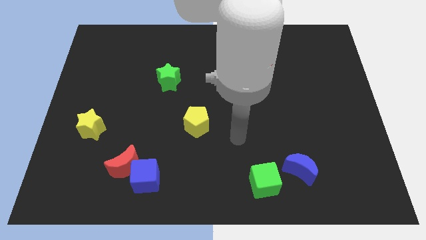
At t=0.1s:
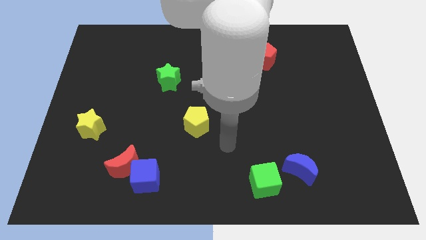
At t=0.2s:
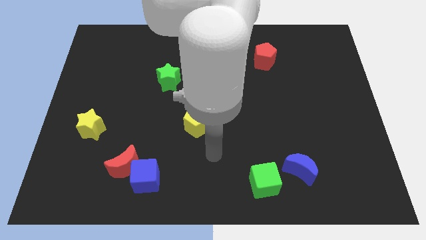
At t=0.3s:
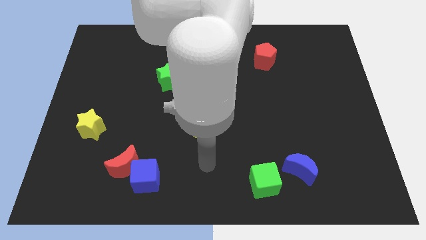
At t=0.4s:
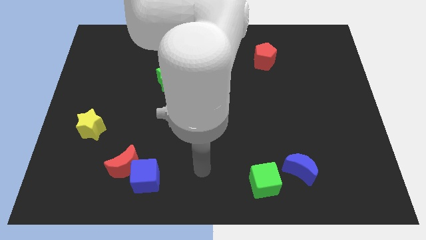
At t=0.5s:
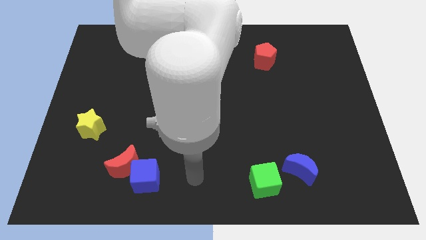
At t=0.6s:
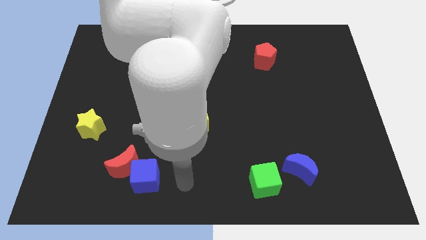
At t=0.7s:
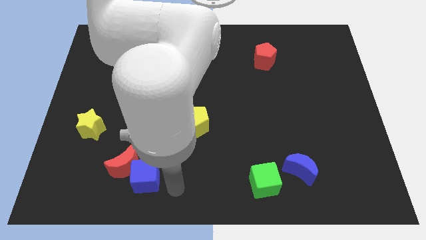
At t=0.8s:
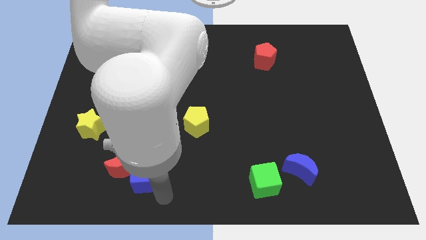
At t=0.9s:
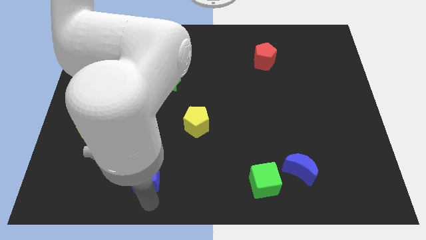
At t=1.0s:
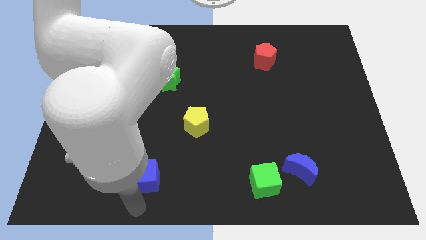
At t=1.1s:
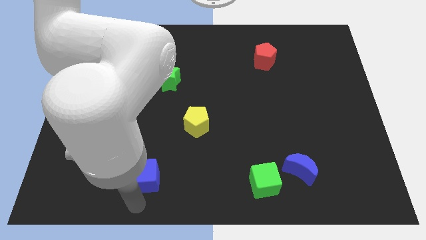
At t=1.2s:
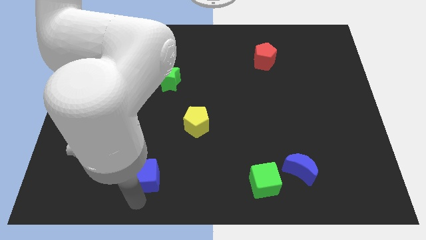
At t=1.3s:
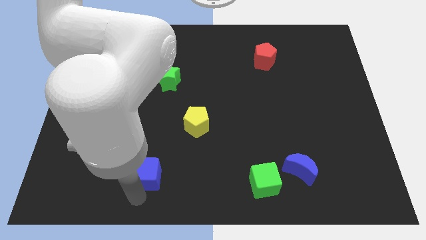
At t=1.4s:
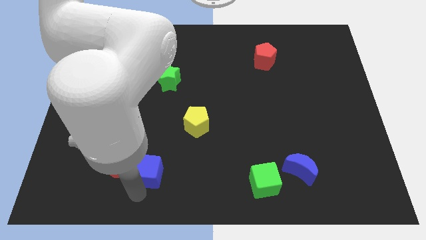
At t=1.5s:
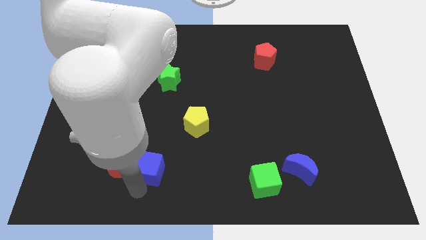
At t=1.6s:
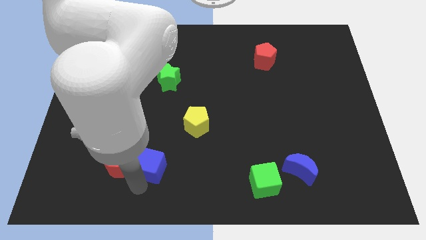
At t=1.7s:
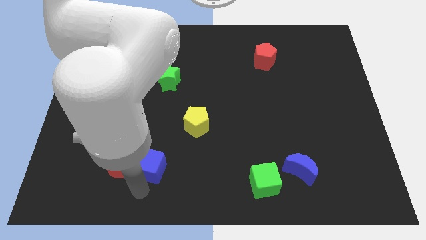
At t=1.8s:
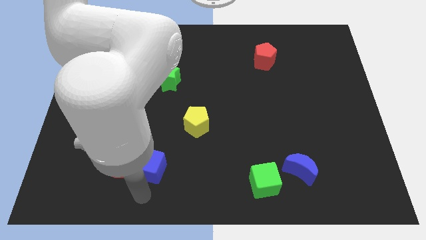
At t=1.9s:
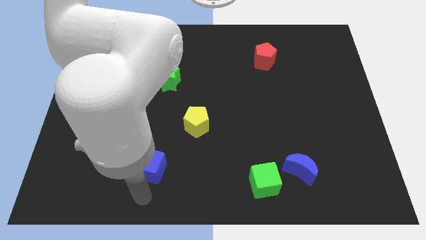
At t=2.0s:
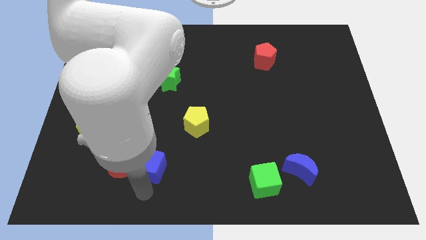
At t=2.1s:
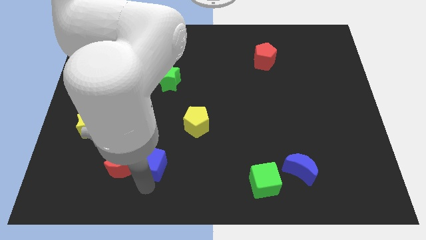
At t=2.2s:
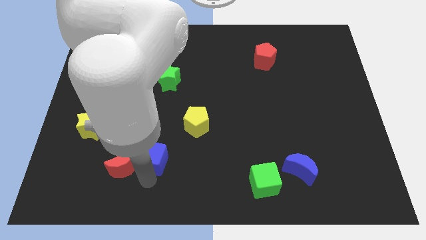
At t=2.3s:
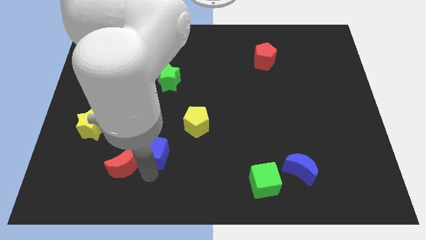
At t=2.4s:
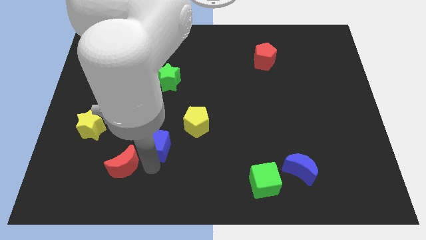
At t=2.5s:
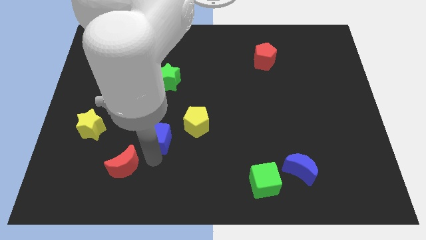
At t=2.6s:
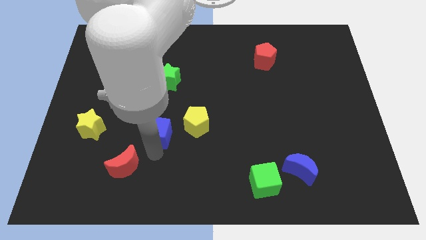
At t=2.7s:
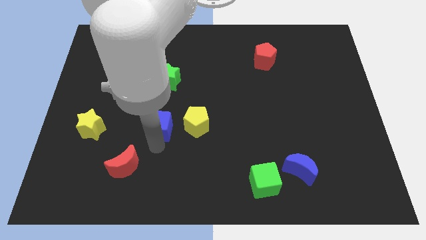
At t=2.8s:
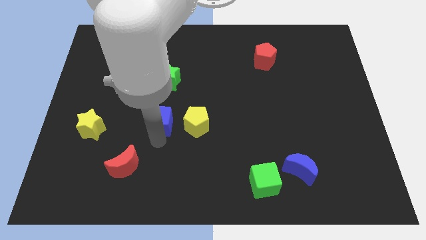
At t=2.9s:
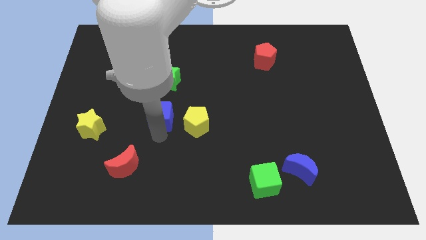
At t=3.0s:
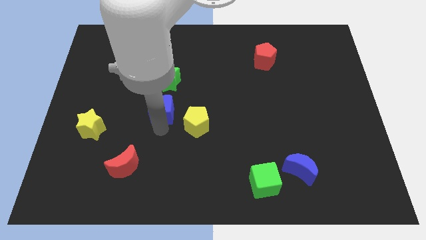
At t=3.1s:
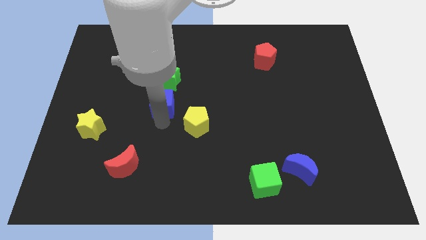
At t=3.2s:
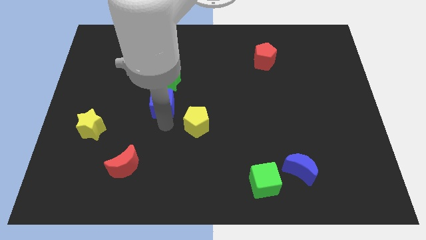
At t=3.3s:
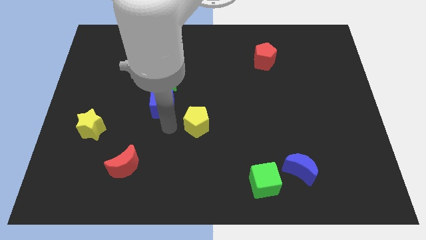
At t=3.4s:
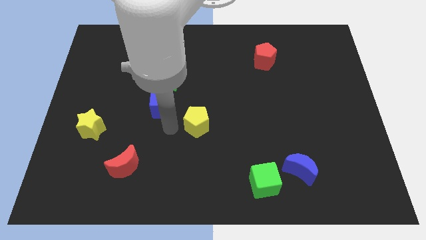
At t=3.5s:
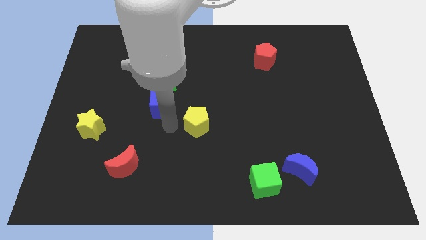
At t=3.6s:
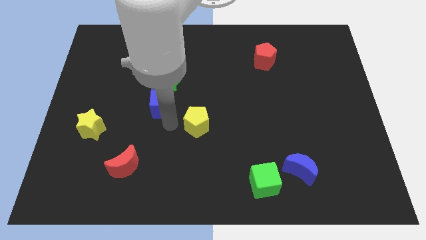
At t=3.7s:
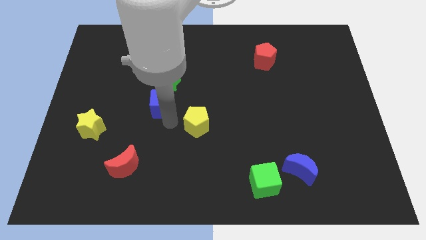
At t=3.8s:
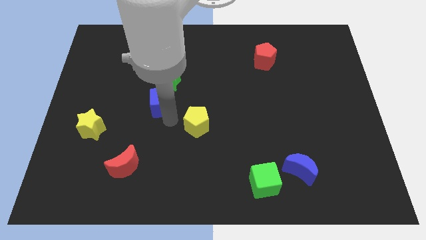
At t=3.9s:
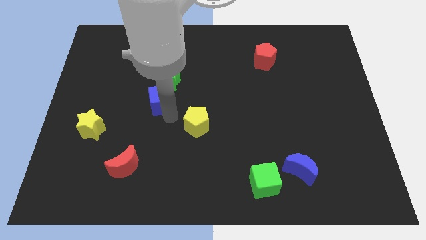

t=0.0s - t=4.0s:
slide the blue cube upwards

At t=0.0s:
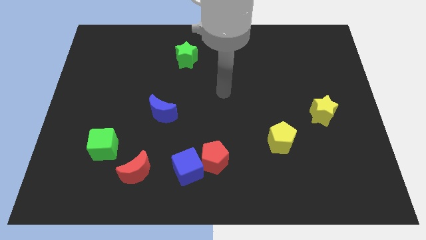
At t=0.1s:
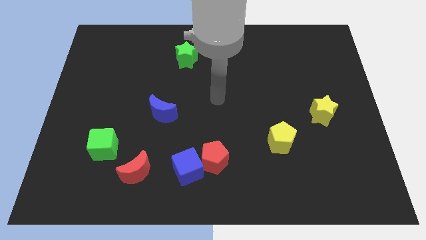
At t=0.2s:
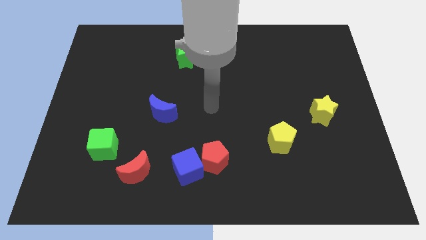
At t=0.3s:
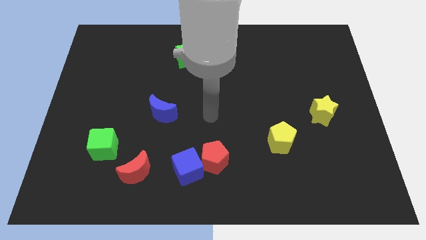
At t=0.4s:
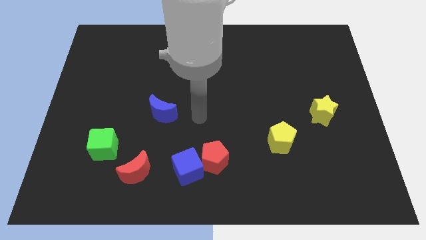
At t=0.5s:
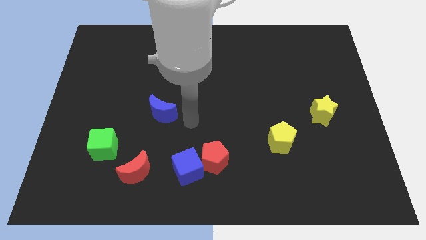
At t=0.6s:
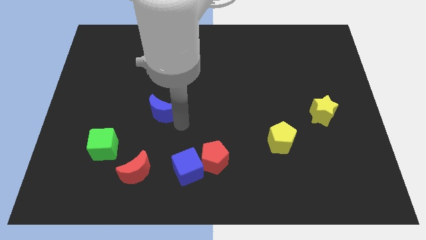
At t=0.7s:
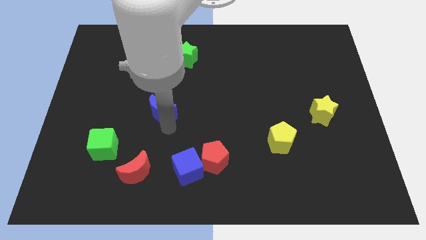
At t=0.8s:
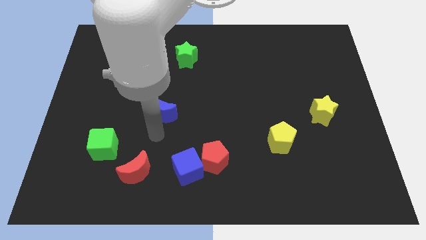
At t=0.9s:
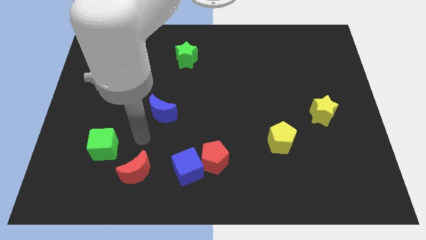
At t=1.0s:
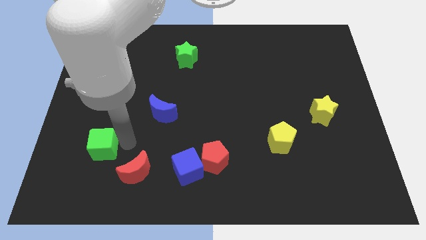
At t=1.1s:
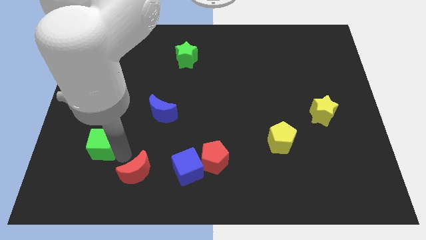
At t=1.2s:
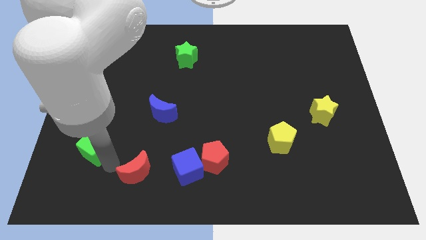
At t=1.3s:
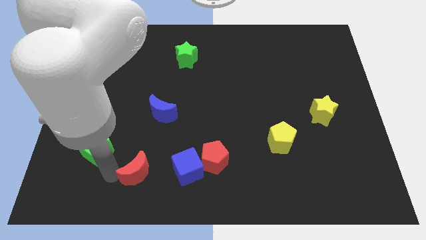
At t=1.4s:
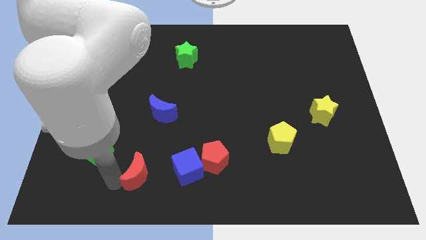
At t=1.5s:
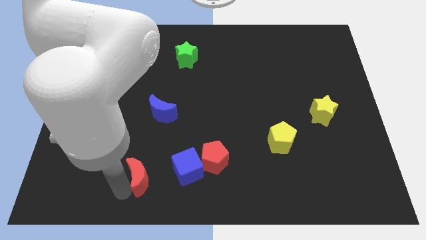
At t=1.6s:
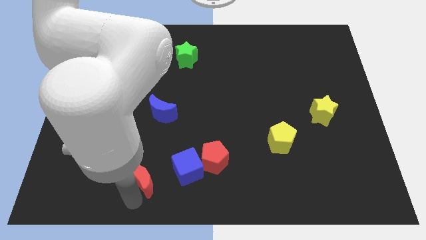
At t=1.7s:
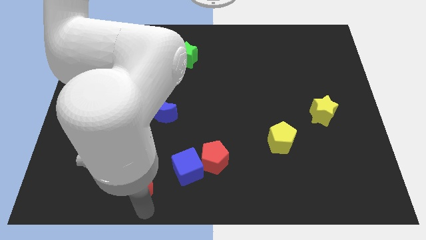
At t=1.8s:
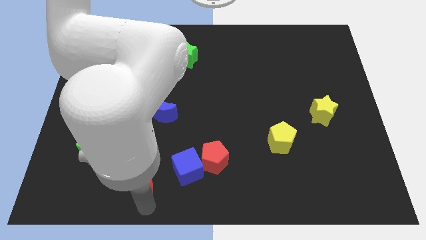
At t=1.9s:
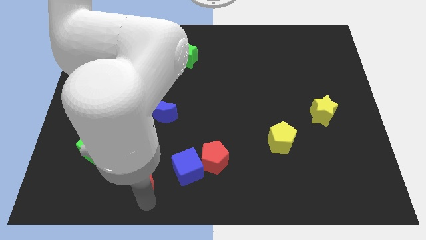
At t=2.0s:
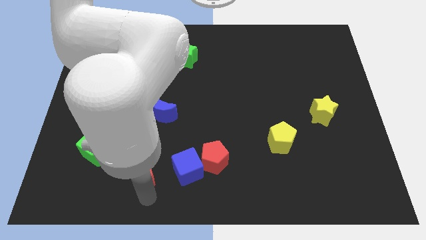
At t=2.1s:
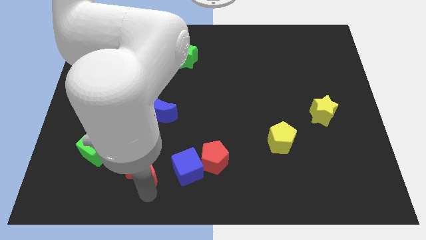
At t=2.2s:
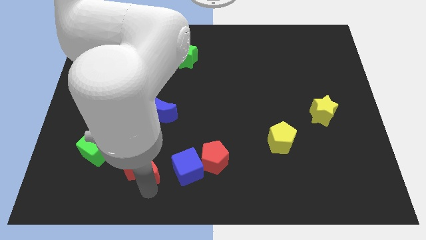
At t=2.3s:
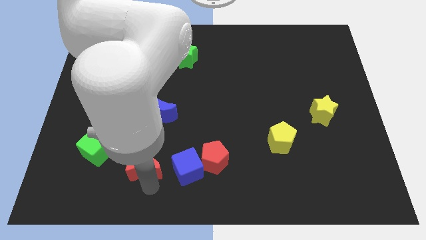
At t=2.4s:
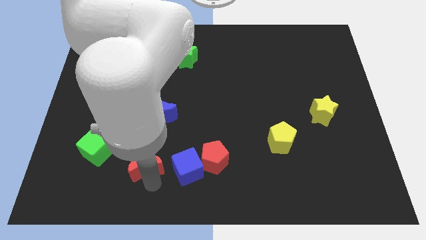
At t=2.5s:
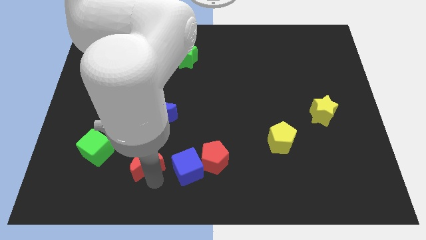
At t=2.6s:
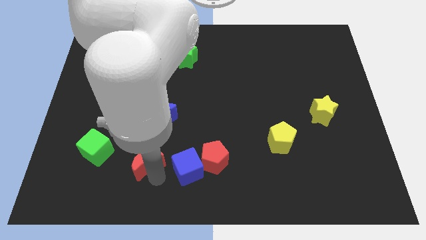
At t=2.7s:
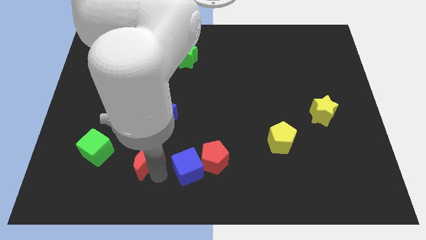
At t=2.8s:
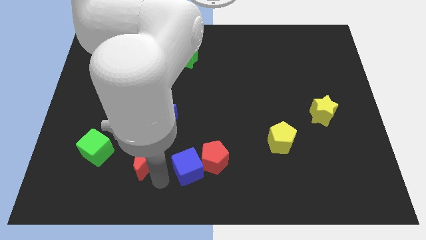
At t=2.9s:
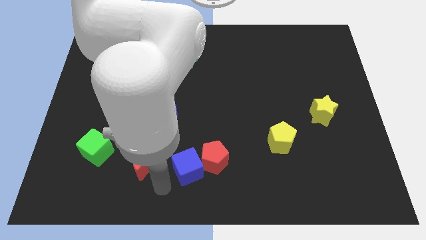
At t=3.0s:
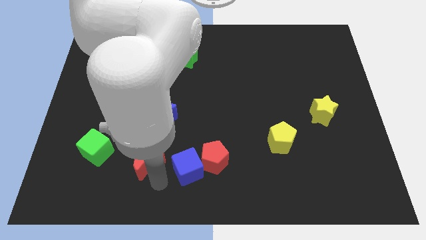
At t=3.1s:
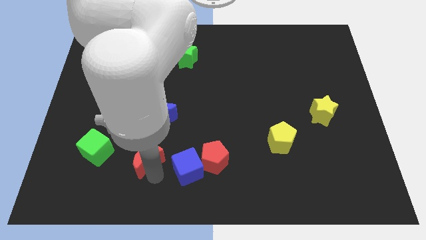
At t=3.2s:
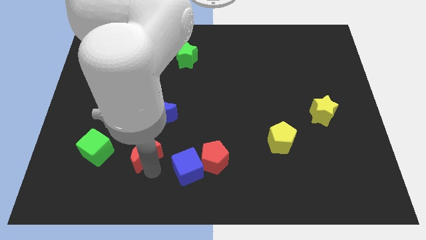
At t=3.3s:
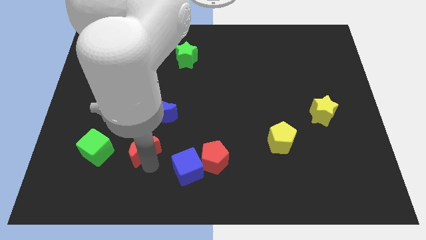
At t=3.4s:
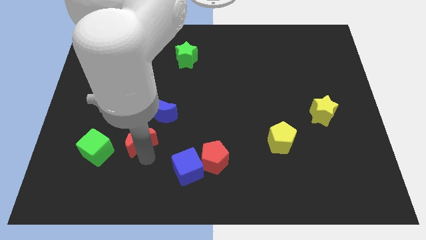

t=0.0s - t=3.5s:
slide the red moon a little bit upwards

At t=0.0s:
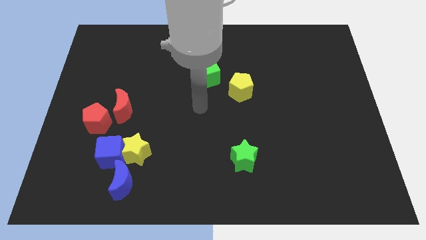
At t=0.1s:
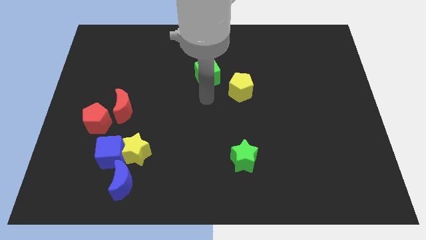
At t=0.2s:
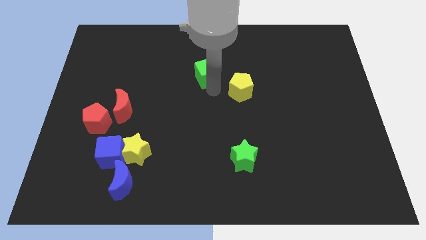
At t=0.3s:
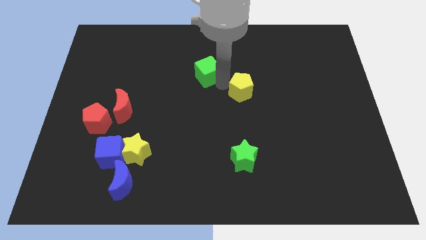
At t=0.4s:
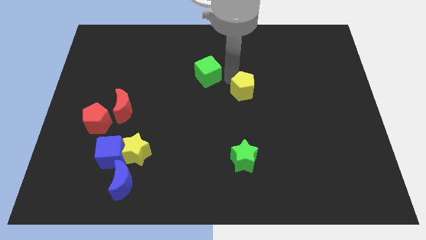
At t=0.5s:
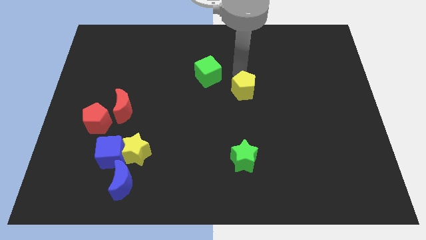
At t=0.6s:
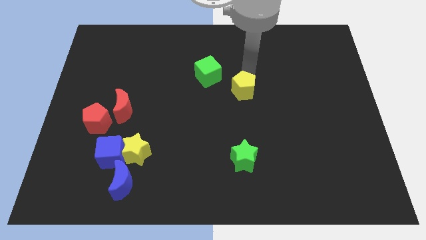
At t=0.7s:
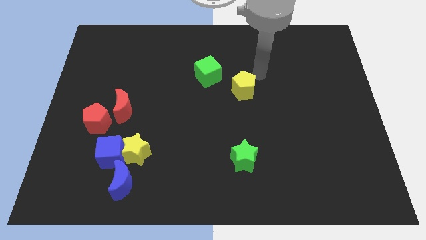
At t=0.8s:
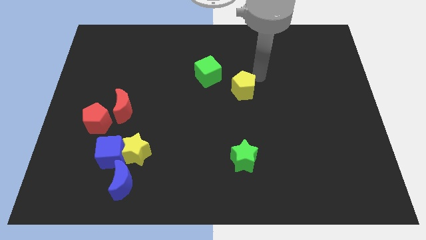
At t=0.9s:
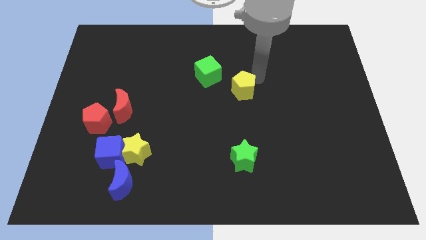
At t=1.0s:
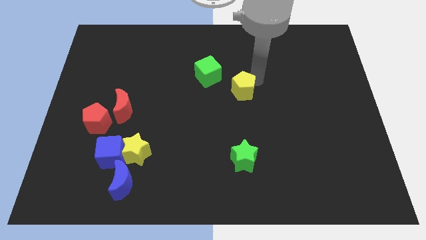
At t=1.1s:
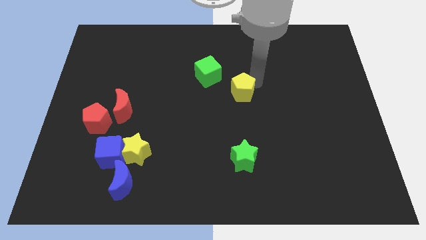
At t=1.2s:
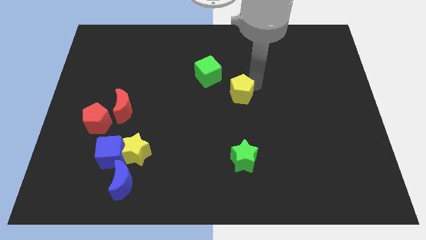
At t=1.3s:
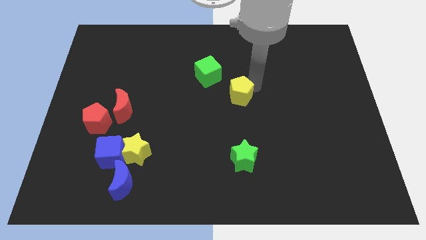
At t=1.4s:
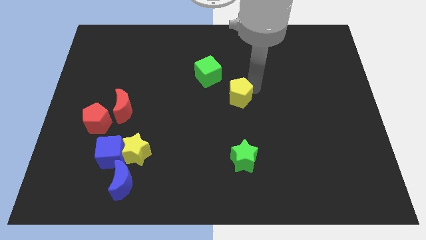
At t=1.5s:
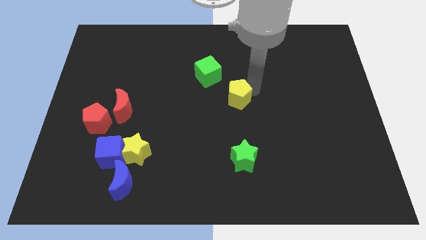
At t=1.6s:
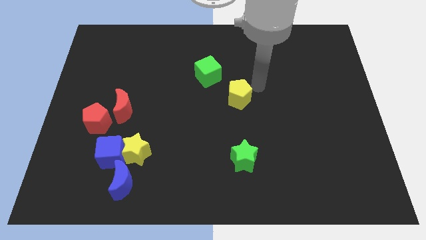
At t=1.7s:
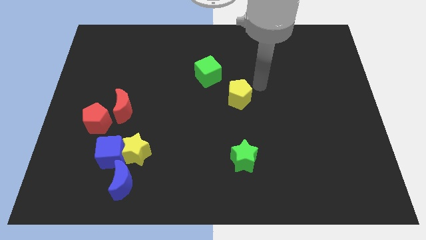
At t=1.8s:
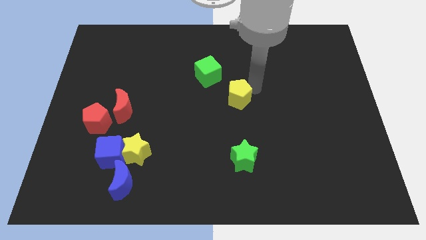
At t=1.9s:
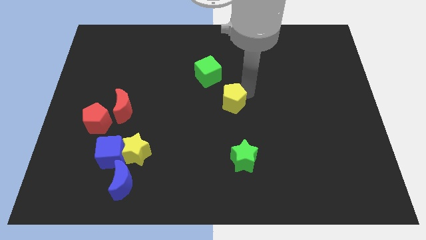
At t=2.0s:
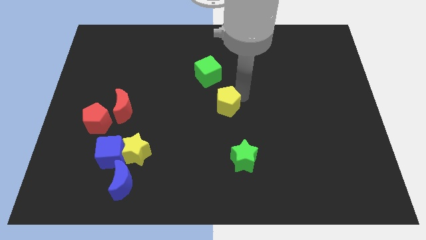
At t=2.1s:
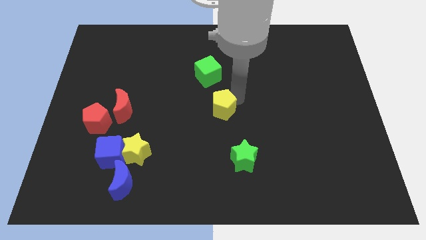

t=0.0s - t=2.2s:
slightly slide the yellow pentagon down and then to the left
